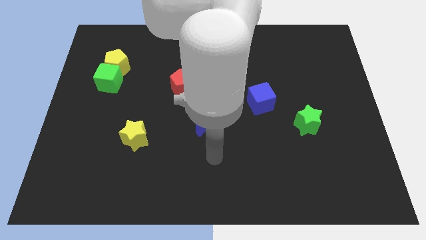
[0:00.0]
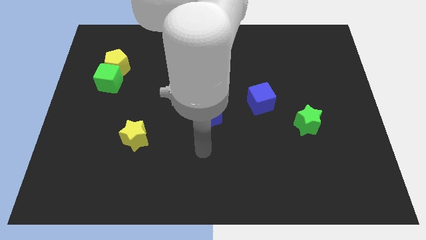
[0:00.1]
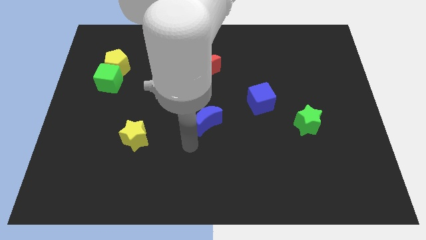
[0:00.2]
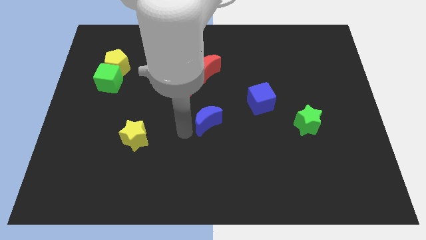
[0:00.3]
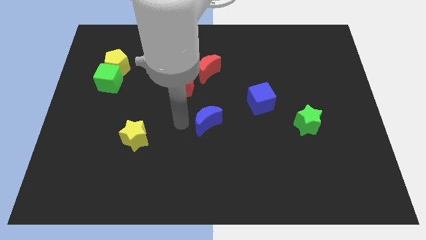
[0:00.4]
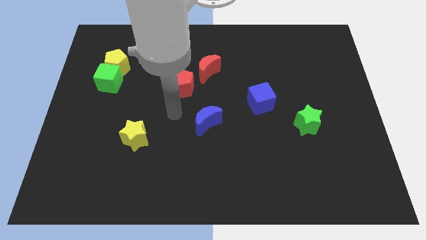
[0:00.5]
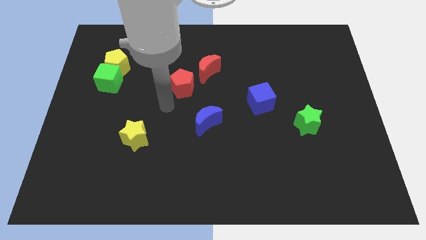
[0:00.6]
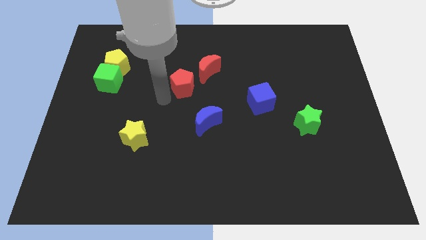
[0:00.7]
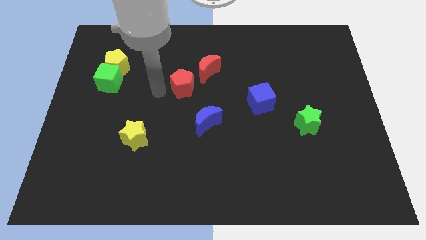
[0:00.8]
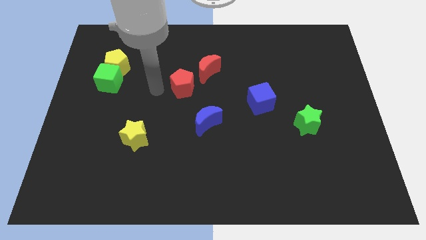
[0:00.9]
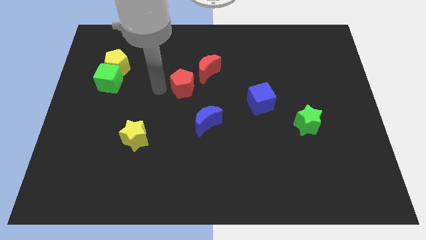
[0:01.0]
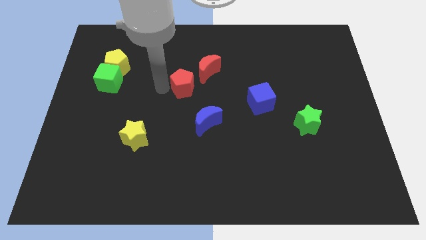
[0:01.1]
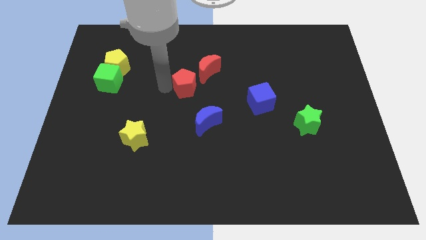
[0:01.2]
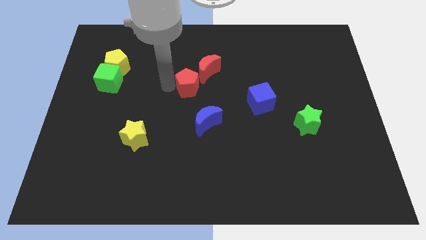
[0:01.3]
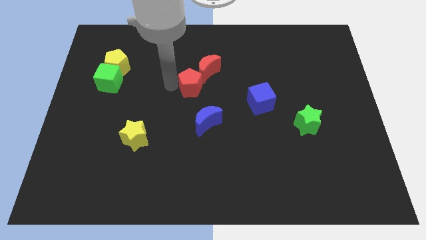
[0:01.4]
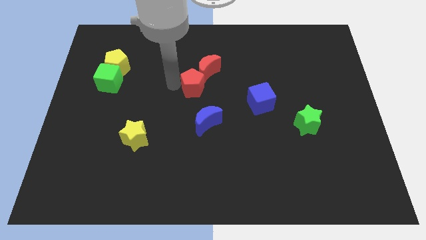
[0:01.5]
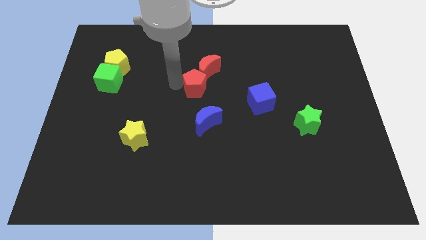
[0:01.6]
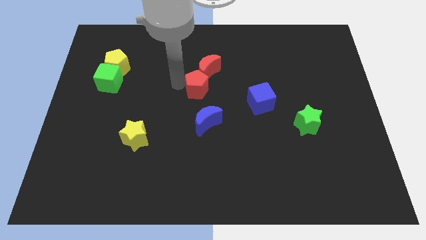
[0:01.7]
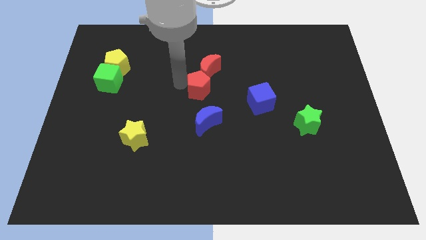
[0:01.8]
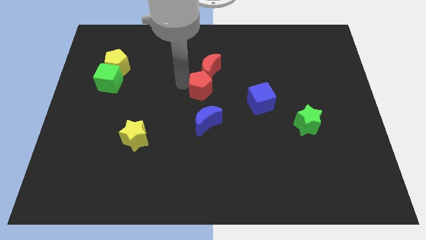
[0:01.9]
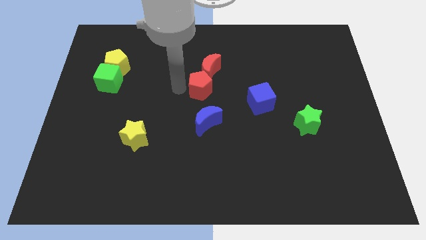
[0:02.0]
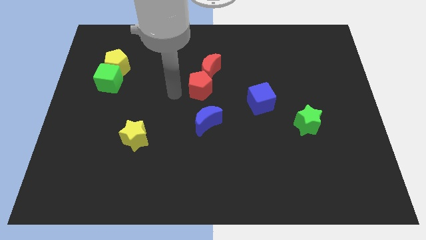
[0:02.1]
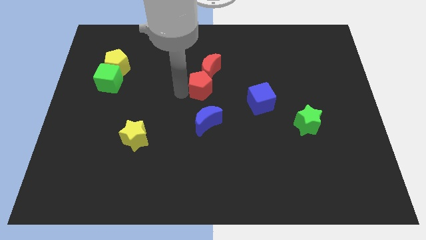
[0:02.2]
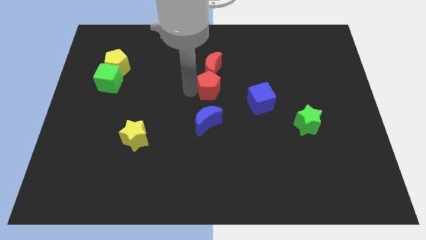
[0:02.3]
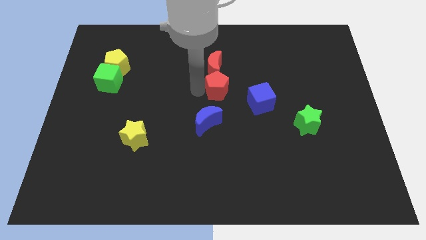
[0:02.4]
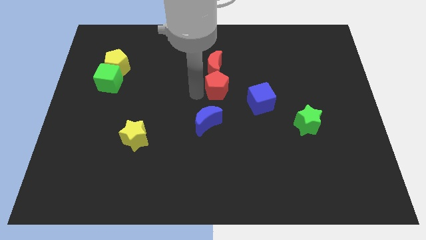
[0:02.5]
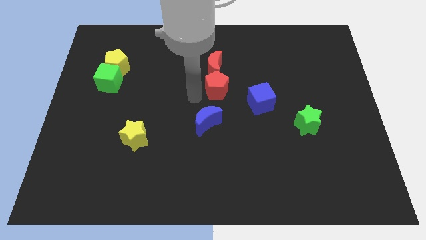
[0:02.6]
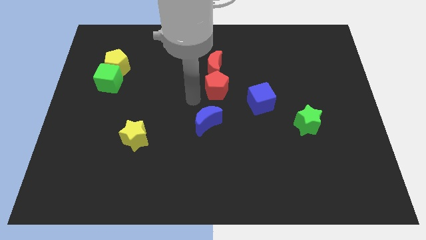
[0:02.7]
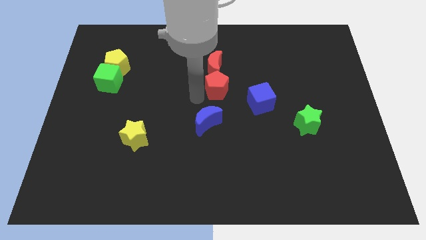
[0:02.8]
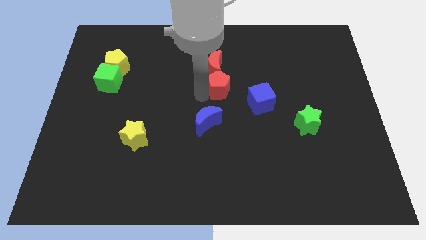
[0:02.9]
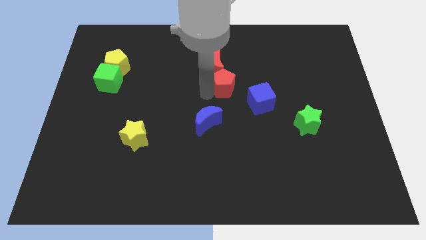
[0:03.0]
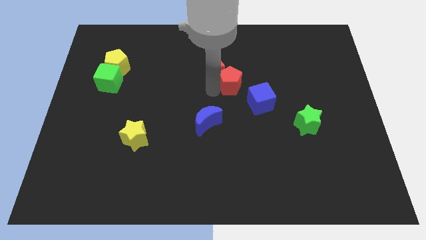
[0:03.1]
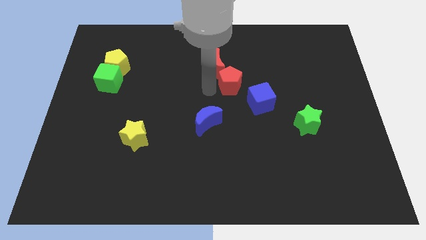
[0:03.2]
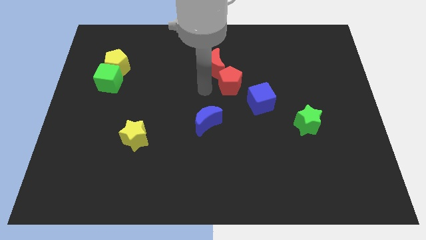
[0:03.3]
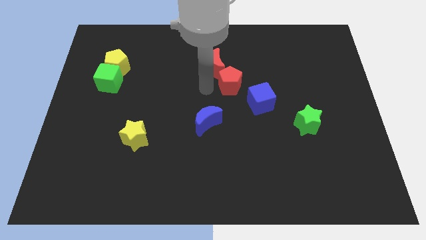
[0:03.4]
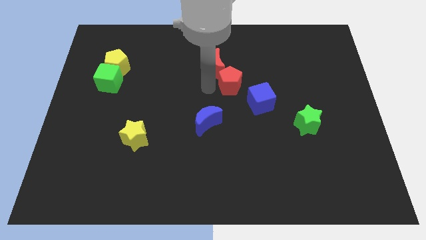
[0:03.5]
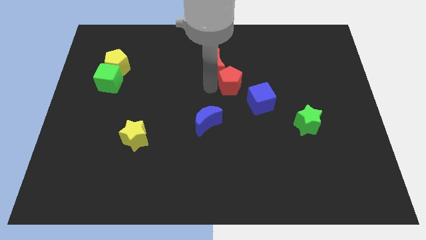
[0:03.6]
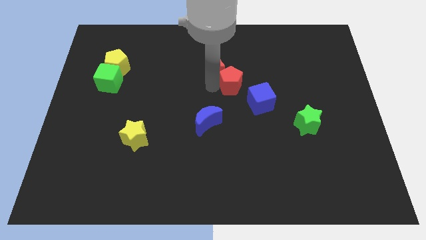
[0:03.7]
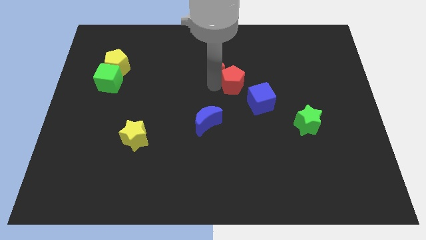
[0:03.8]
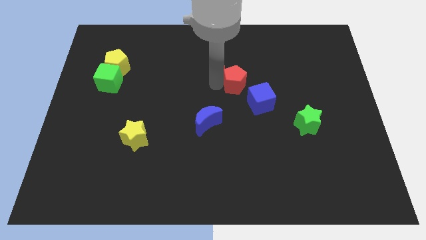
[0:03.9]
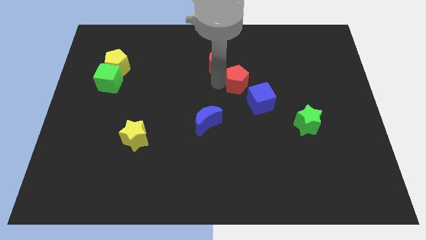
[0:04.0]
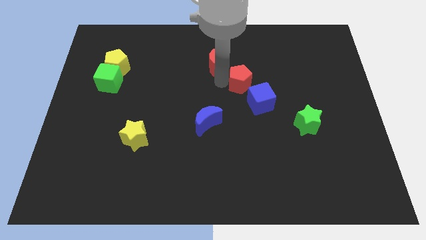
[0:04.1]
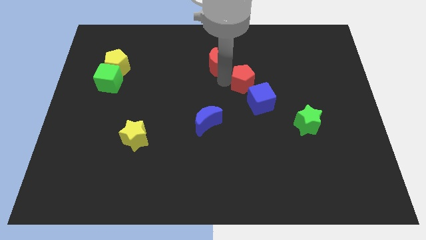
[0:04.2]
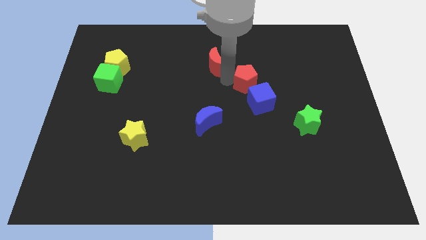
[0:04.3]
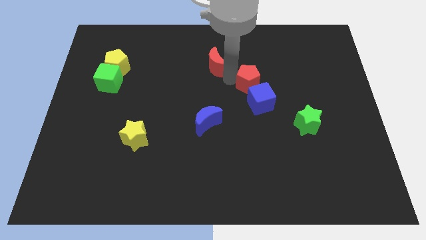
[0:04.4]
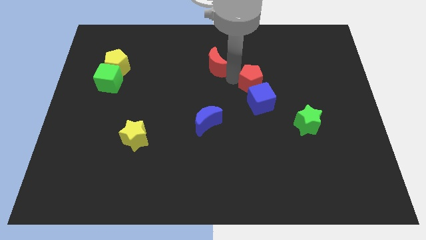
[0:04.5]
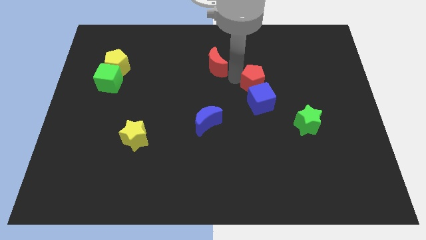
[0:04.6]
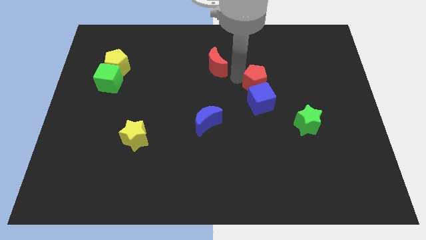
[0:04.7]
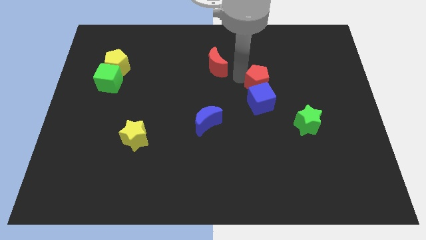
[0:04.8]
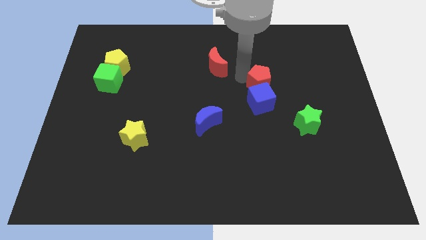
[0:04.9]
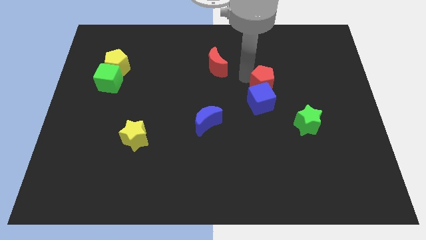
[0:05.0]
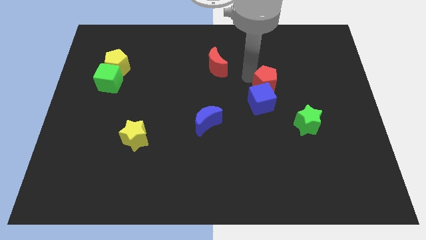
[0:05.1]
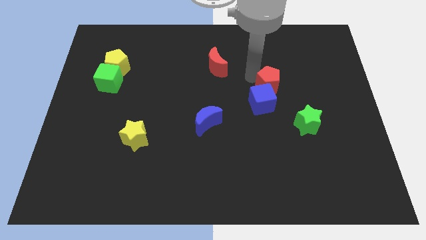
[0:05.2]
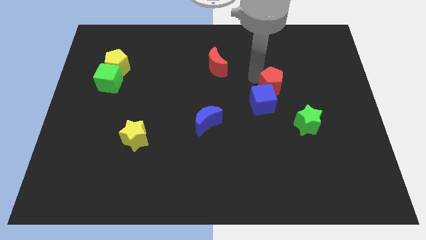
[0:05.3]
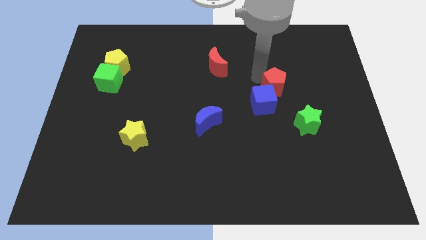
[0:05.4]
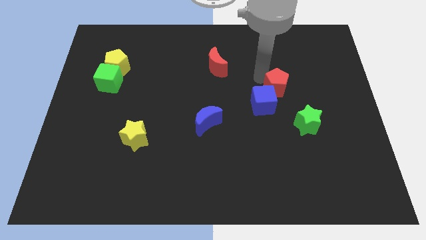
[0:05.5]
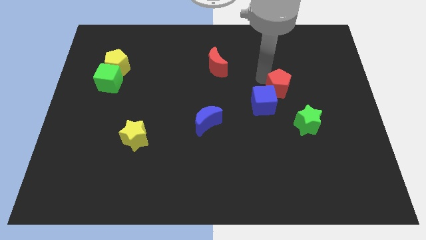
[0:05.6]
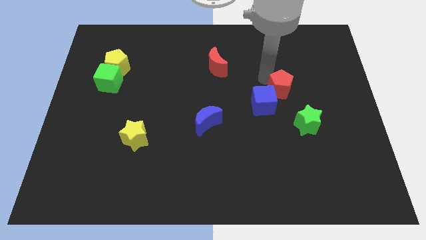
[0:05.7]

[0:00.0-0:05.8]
move the red pentagon just right of the blue cube

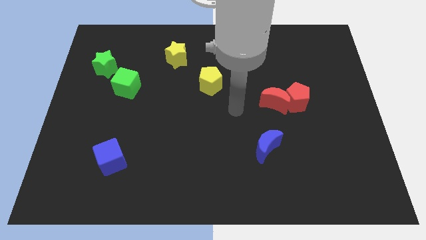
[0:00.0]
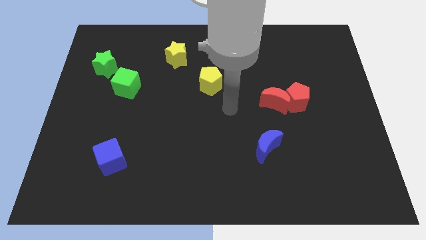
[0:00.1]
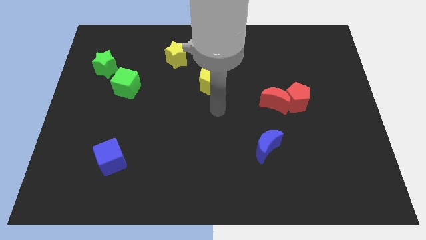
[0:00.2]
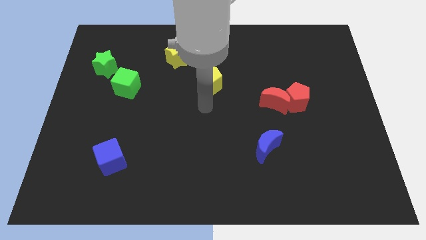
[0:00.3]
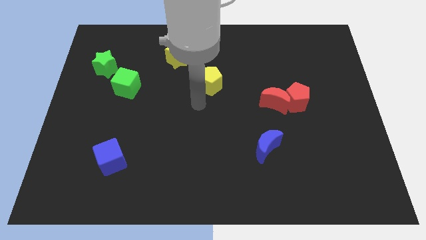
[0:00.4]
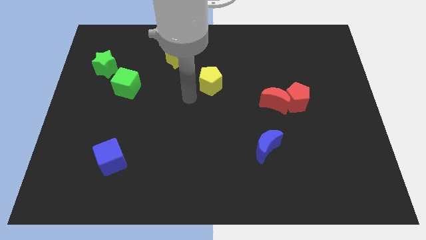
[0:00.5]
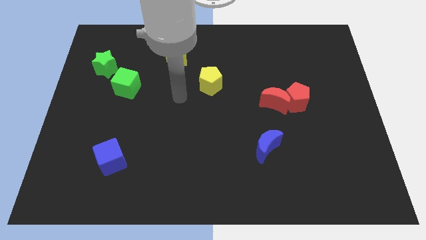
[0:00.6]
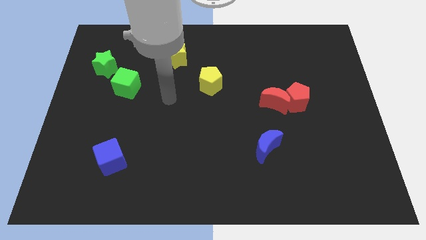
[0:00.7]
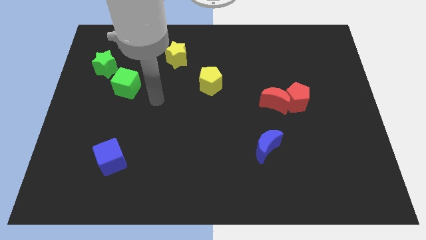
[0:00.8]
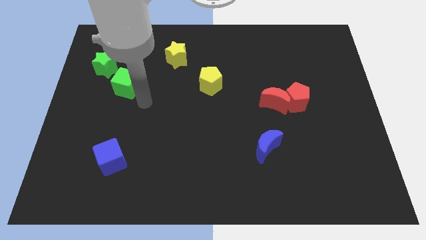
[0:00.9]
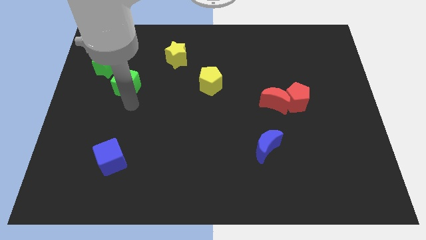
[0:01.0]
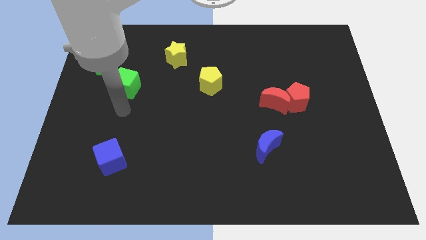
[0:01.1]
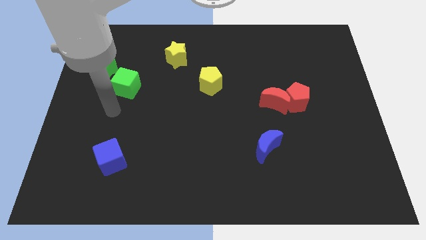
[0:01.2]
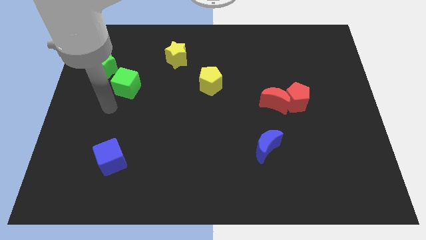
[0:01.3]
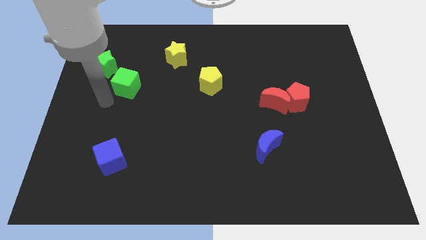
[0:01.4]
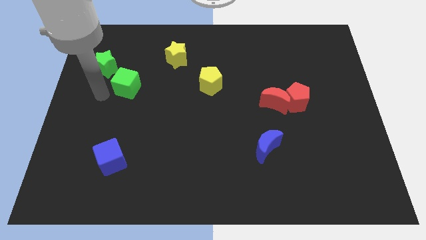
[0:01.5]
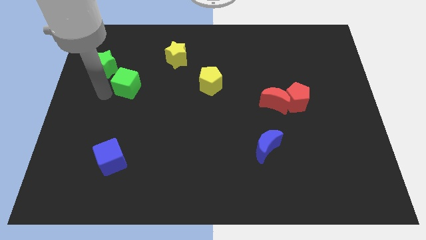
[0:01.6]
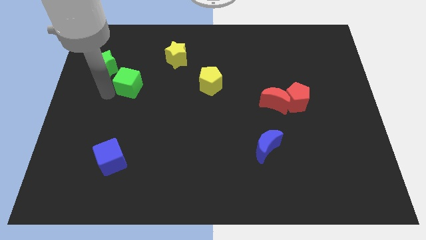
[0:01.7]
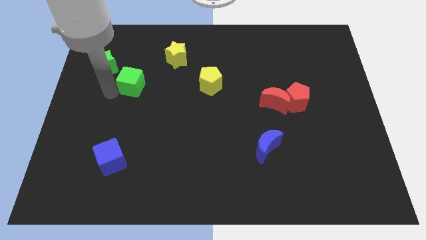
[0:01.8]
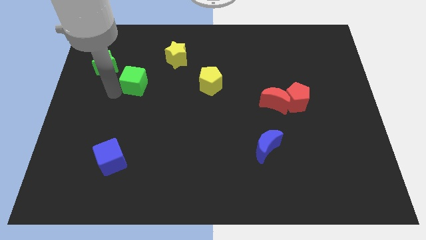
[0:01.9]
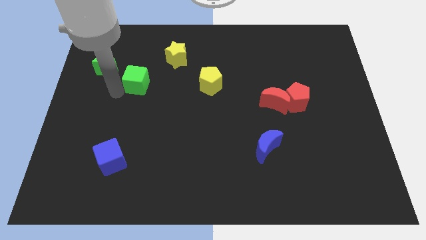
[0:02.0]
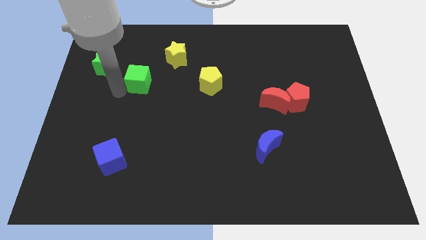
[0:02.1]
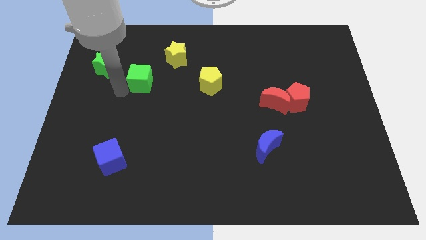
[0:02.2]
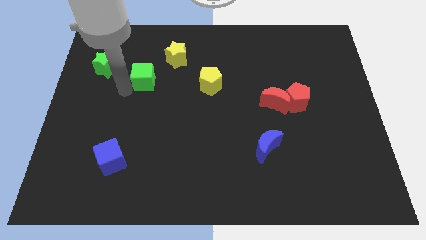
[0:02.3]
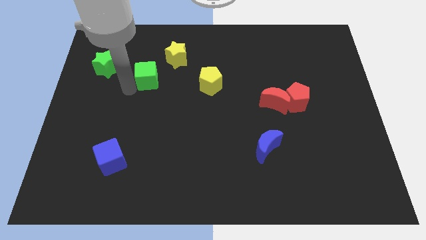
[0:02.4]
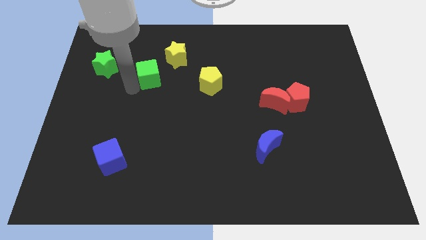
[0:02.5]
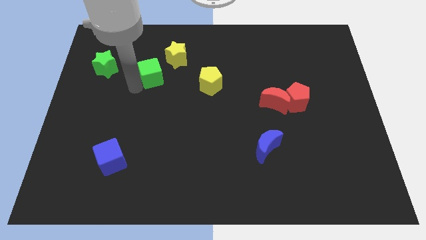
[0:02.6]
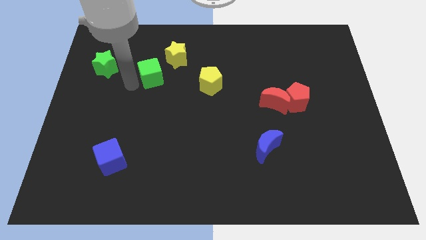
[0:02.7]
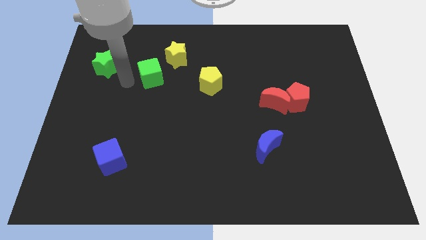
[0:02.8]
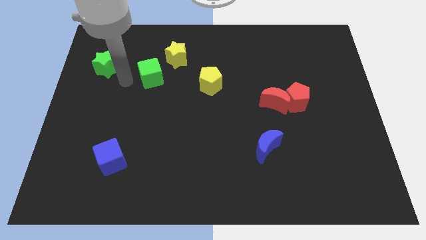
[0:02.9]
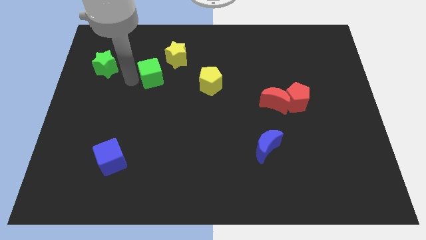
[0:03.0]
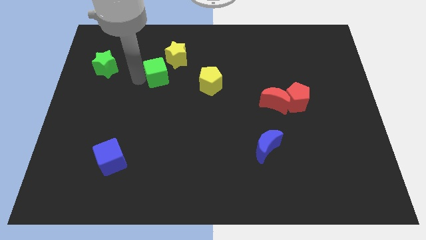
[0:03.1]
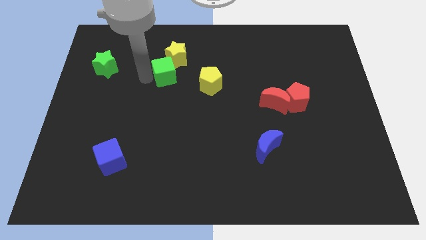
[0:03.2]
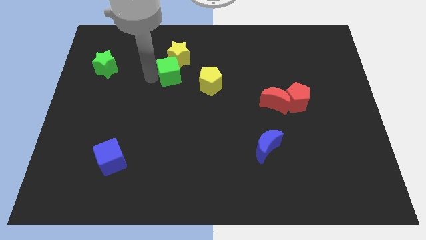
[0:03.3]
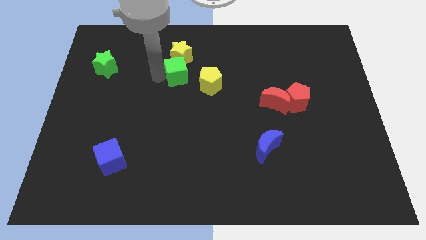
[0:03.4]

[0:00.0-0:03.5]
slide the green cube to the top left of the yellow pentagon
